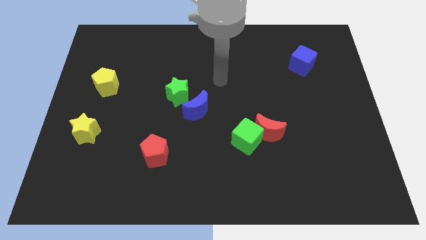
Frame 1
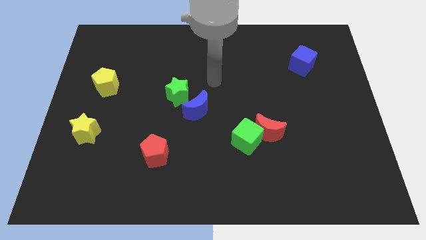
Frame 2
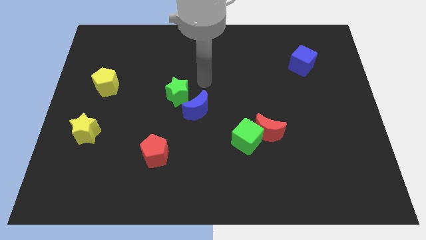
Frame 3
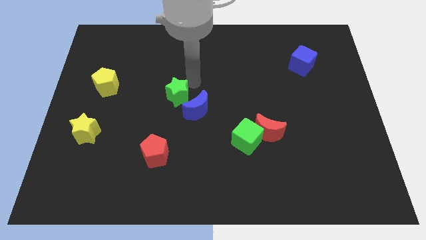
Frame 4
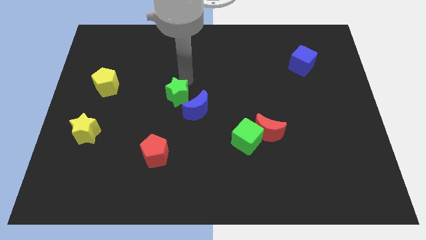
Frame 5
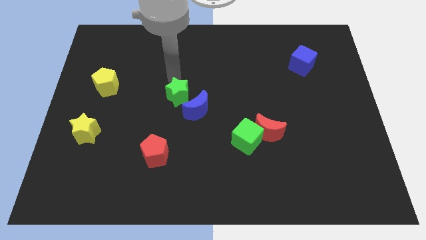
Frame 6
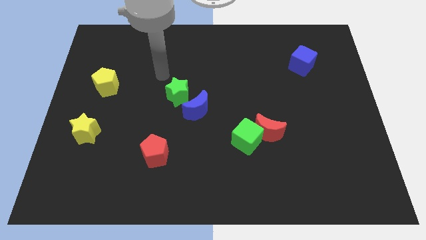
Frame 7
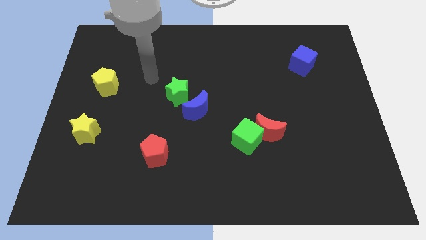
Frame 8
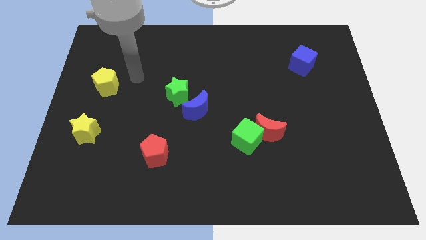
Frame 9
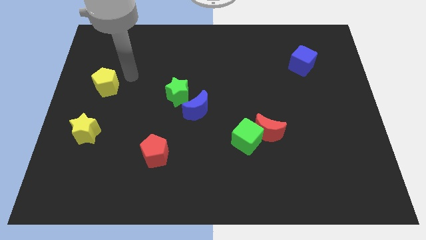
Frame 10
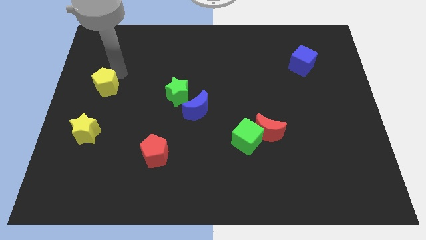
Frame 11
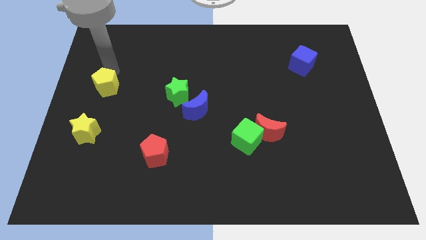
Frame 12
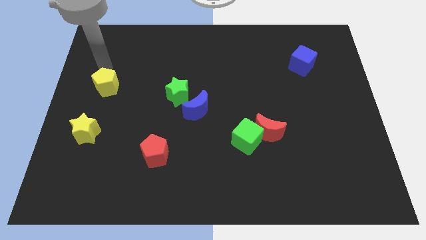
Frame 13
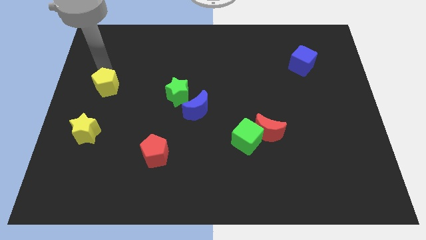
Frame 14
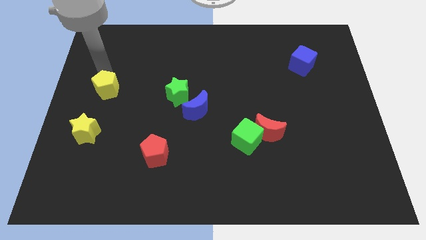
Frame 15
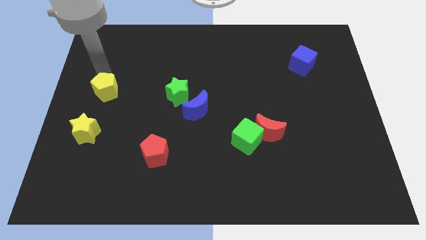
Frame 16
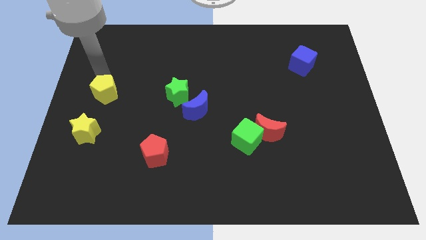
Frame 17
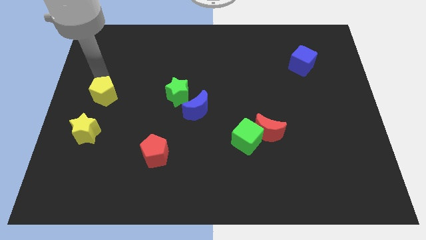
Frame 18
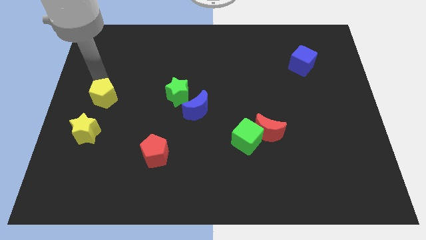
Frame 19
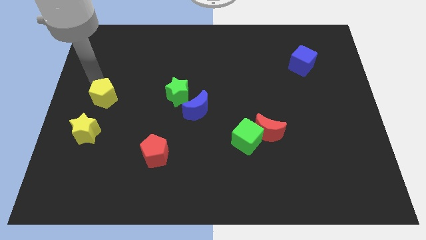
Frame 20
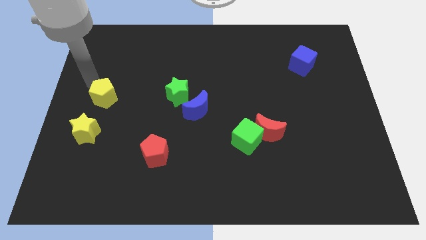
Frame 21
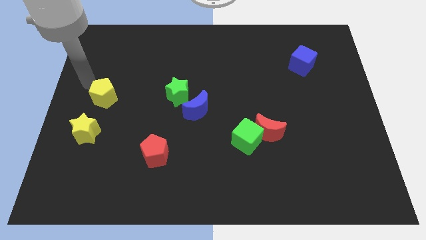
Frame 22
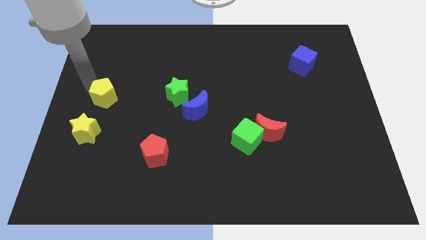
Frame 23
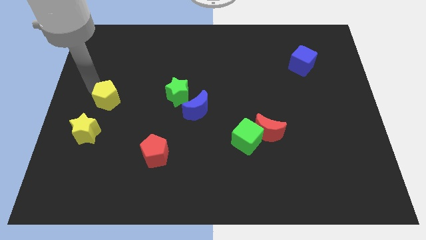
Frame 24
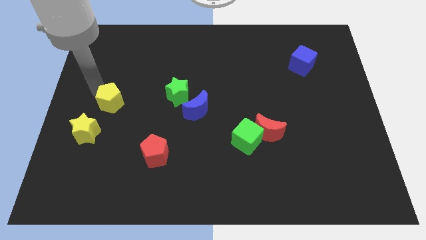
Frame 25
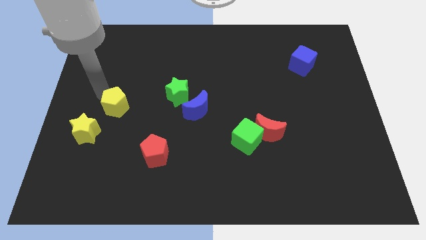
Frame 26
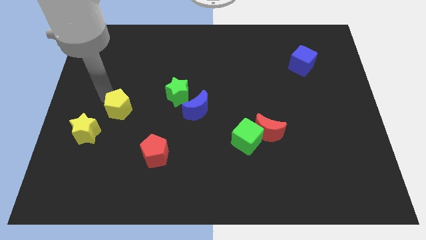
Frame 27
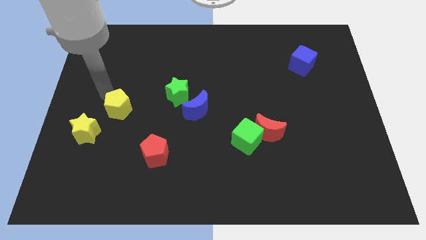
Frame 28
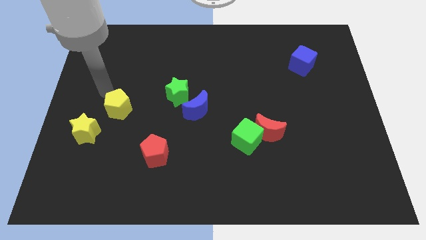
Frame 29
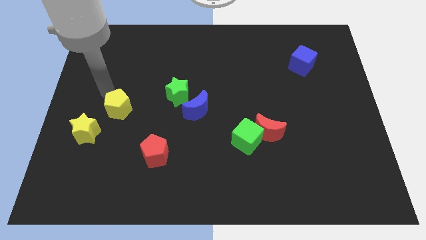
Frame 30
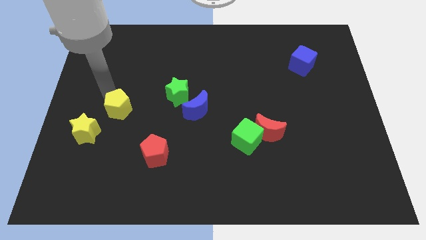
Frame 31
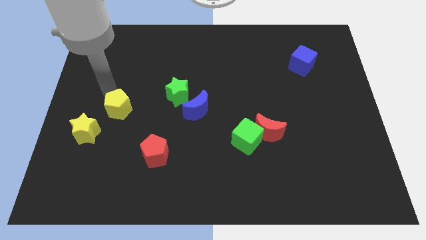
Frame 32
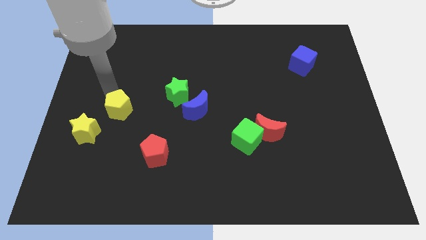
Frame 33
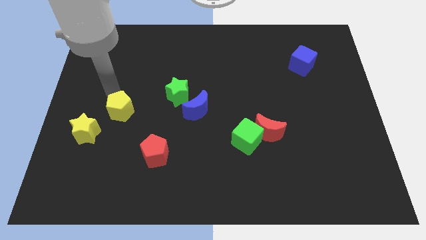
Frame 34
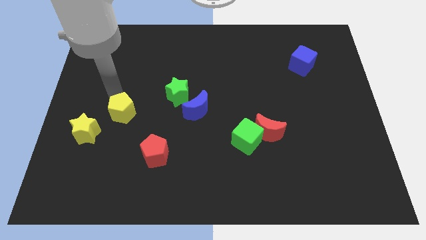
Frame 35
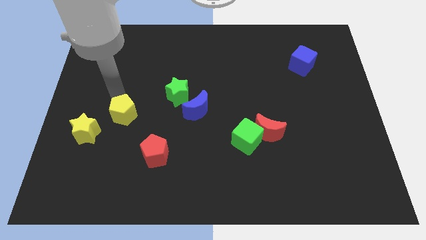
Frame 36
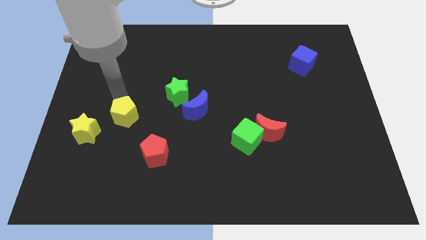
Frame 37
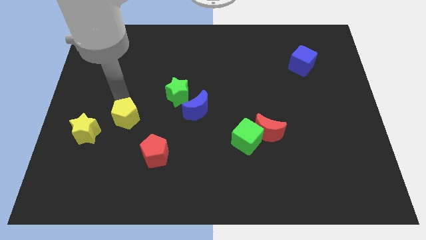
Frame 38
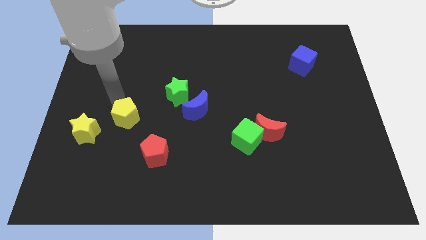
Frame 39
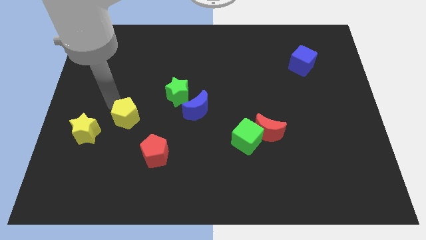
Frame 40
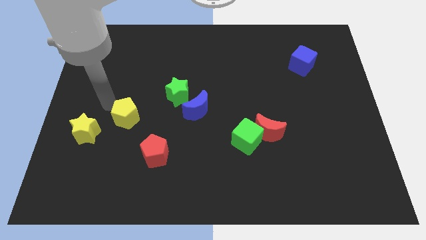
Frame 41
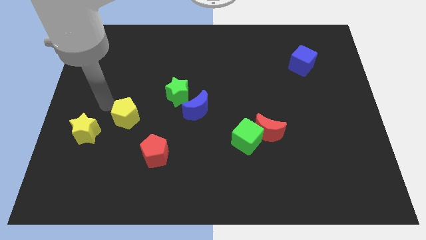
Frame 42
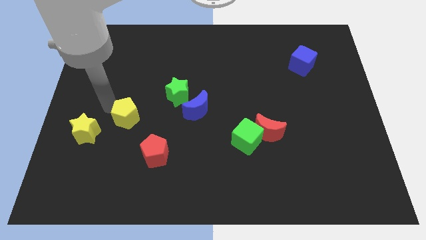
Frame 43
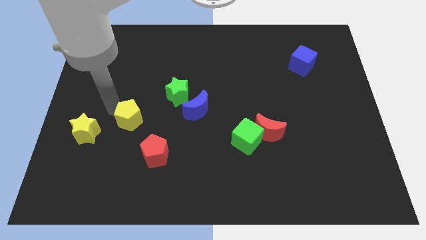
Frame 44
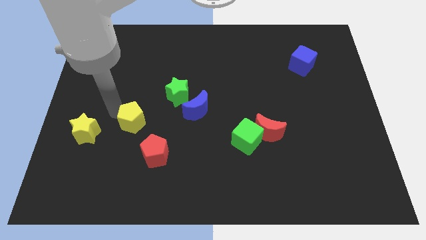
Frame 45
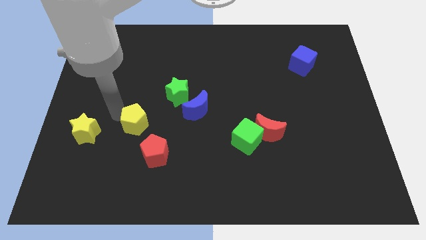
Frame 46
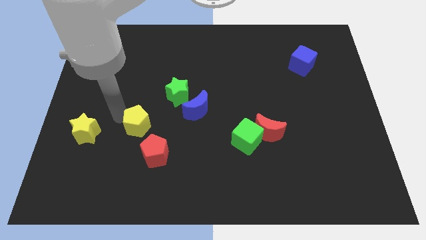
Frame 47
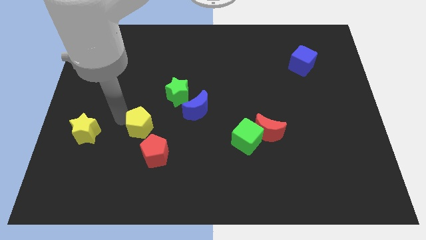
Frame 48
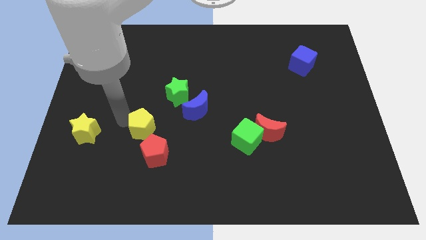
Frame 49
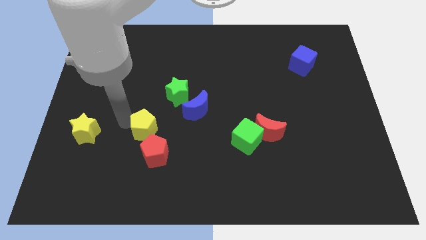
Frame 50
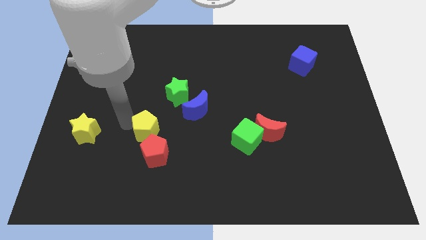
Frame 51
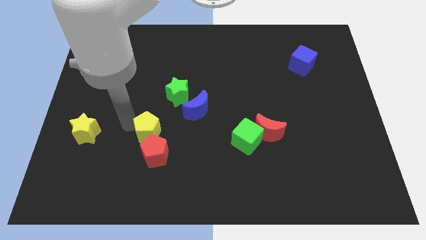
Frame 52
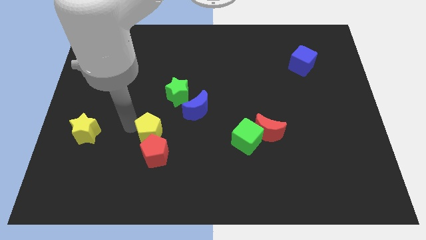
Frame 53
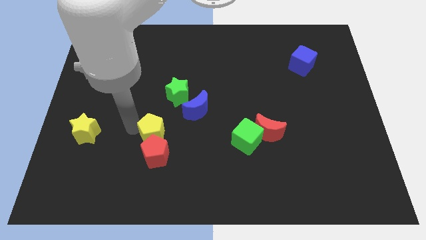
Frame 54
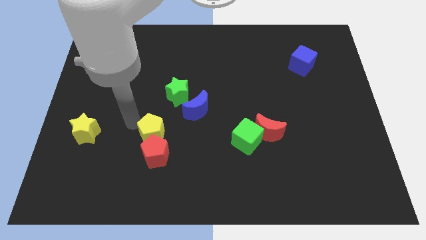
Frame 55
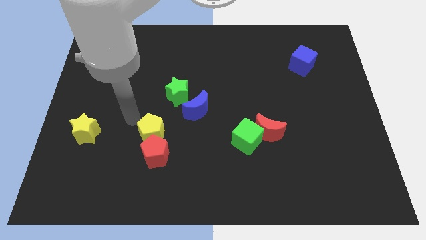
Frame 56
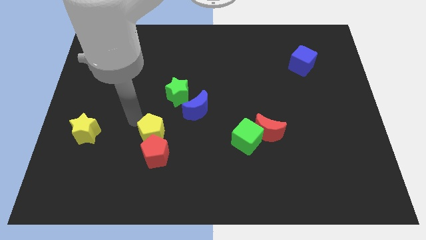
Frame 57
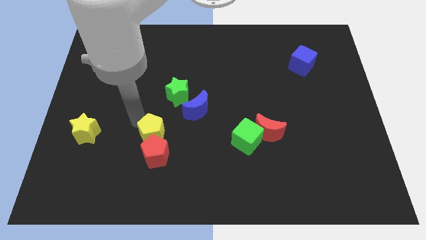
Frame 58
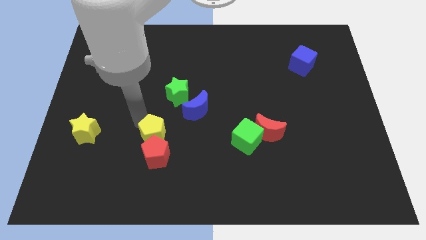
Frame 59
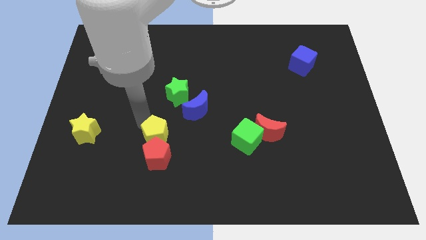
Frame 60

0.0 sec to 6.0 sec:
slide the yellow pentagon down and right diagonally

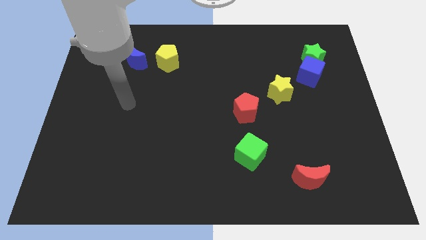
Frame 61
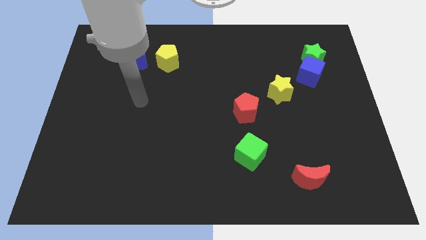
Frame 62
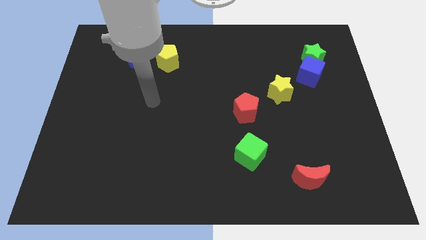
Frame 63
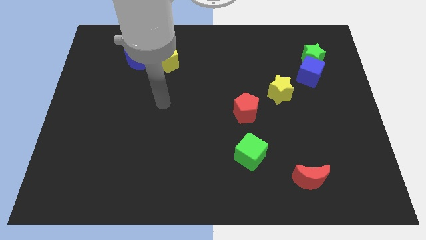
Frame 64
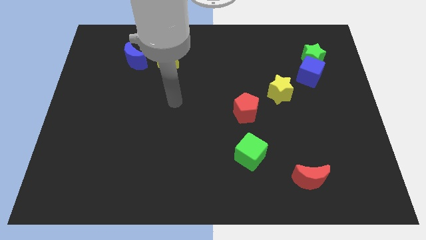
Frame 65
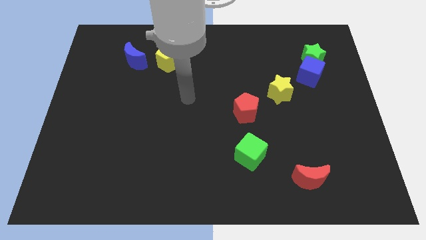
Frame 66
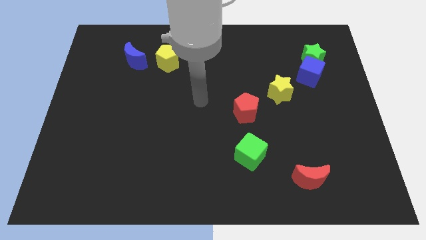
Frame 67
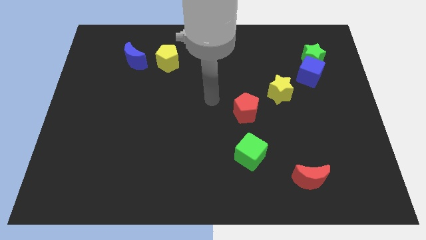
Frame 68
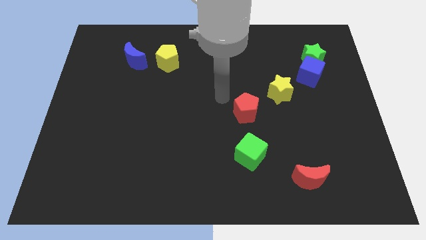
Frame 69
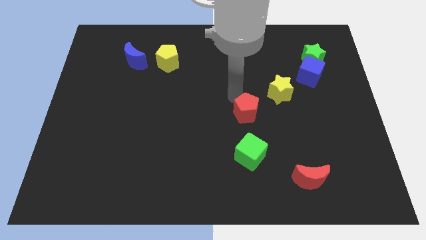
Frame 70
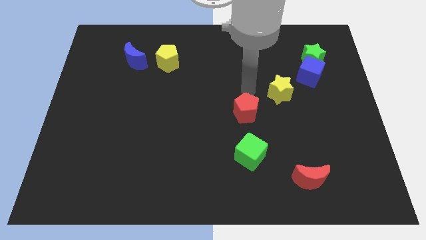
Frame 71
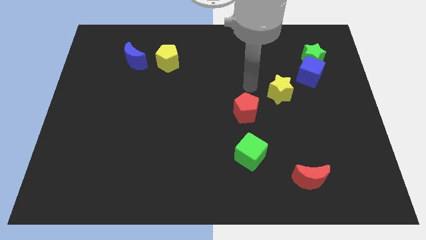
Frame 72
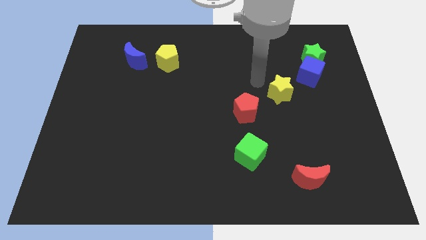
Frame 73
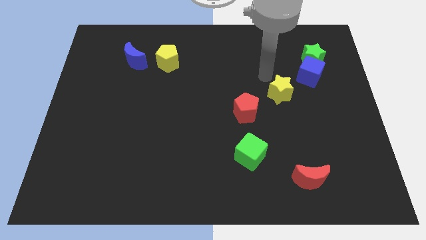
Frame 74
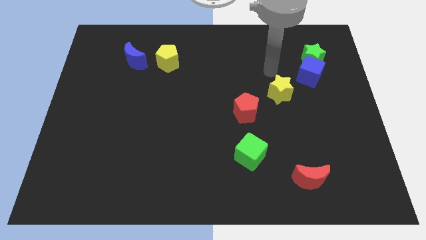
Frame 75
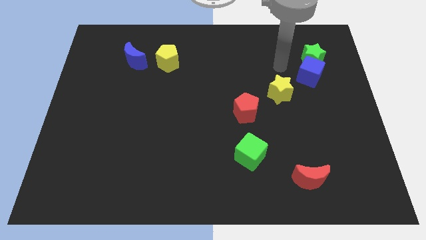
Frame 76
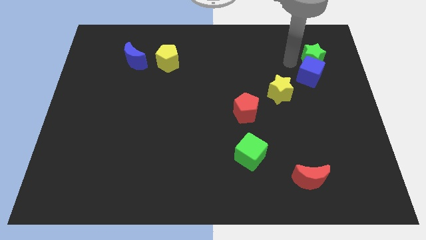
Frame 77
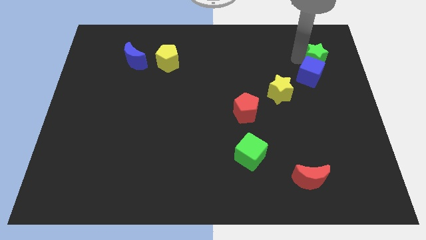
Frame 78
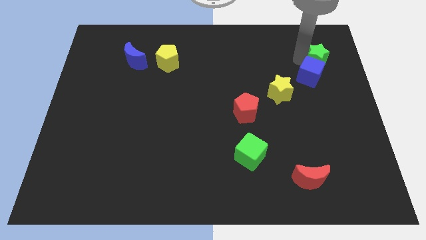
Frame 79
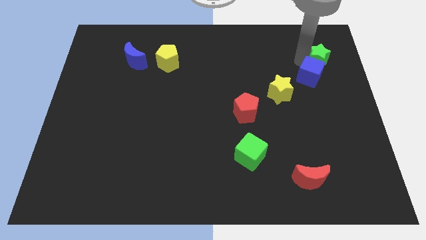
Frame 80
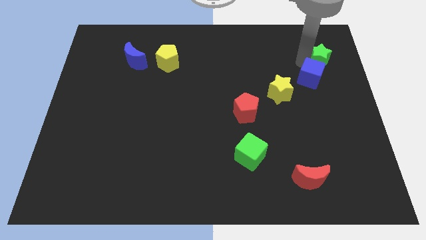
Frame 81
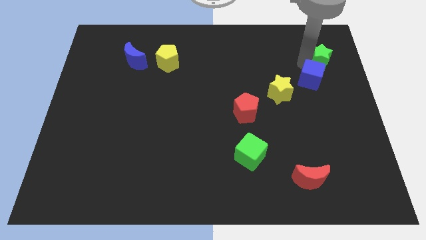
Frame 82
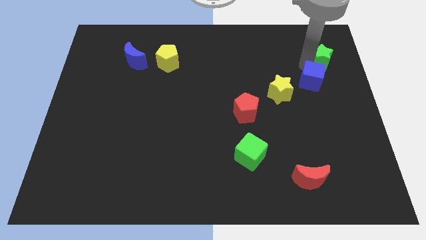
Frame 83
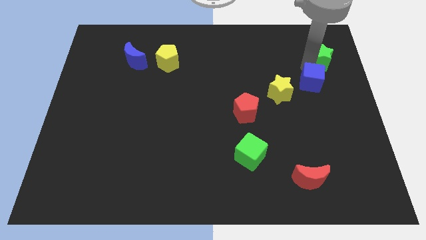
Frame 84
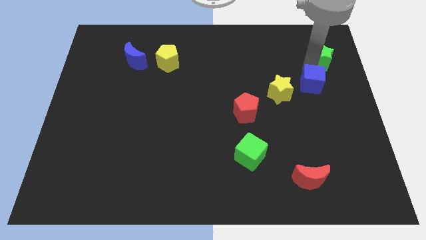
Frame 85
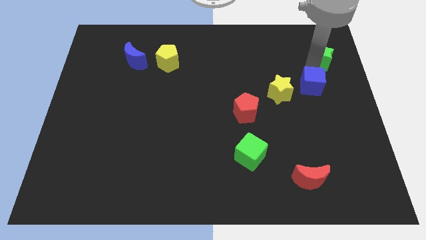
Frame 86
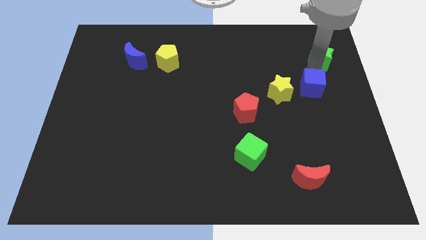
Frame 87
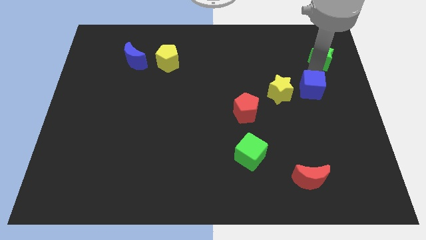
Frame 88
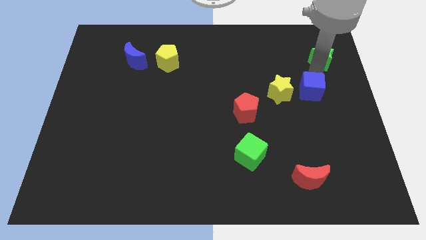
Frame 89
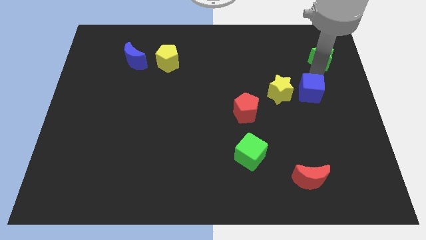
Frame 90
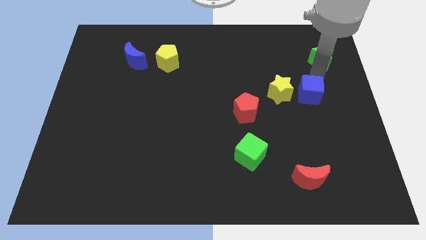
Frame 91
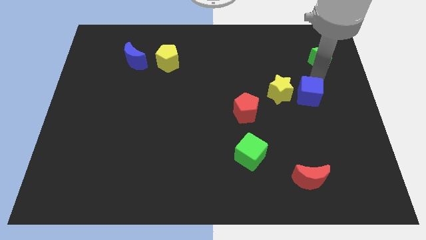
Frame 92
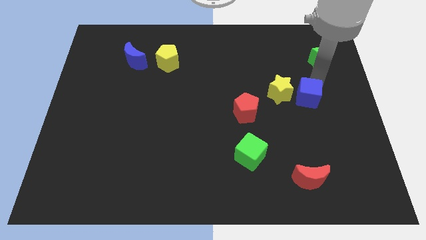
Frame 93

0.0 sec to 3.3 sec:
slide the blue cube a bit downwards
